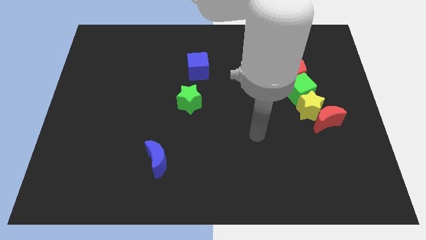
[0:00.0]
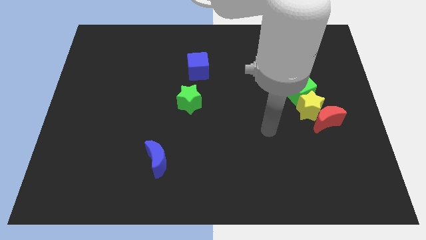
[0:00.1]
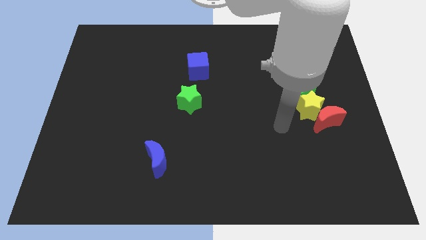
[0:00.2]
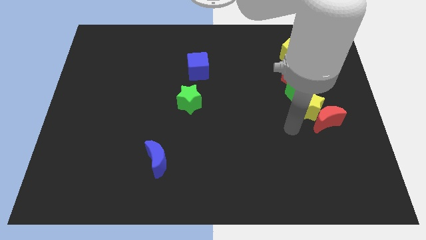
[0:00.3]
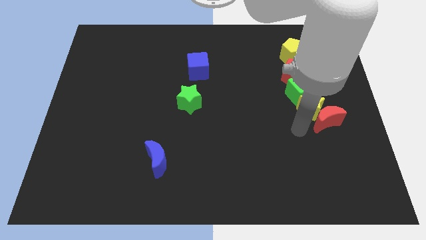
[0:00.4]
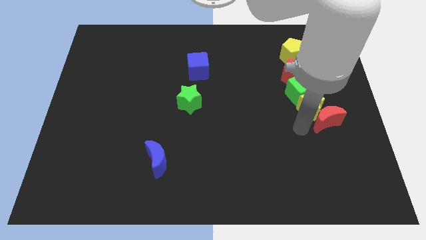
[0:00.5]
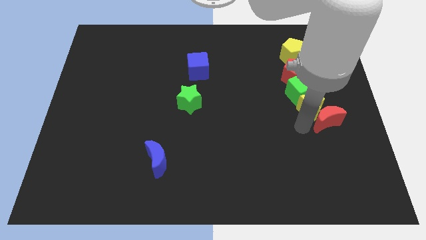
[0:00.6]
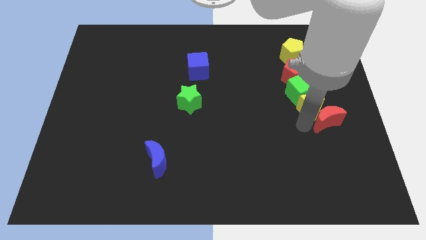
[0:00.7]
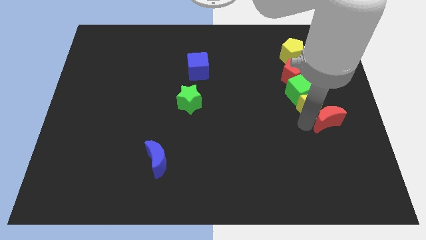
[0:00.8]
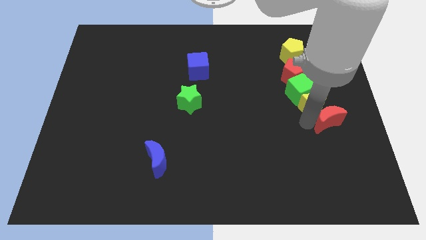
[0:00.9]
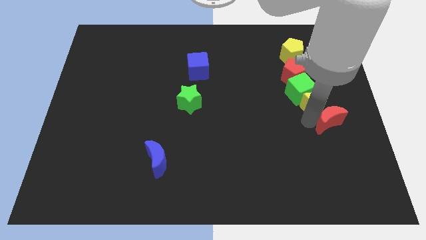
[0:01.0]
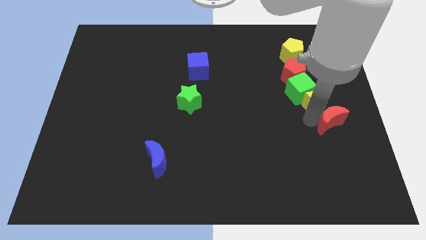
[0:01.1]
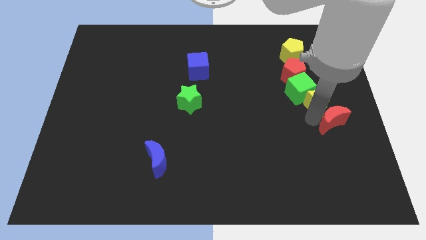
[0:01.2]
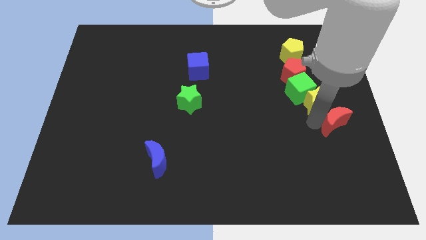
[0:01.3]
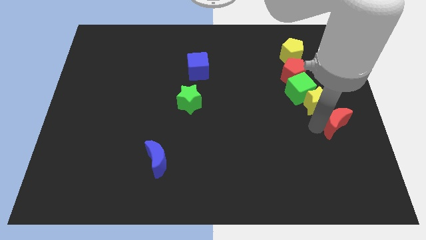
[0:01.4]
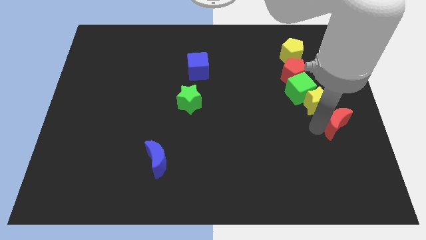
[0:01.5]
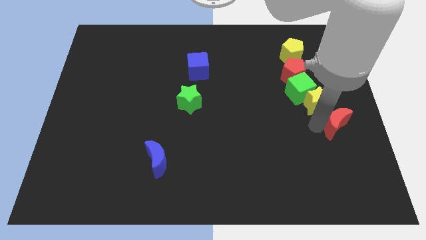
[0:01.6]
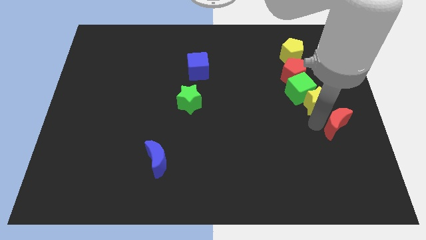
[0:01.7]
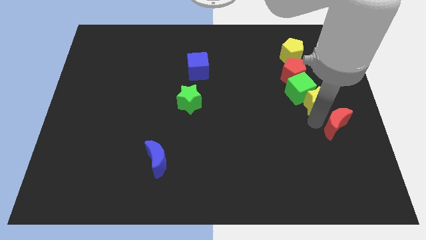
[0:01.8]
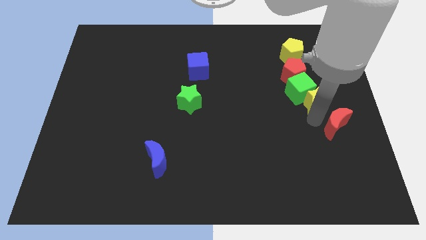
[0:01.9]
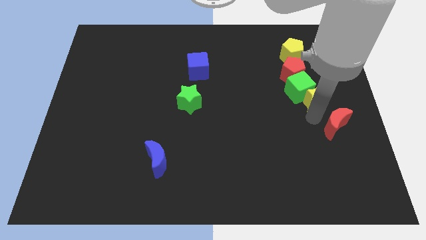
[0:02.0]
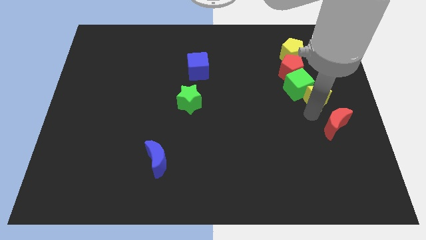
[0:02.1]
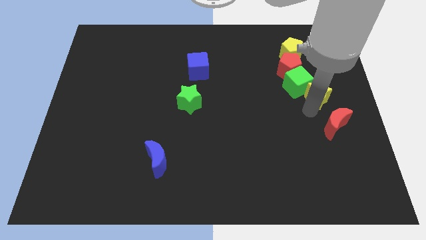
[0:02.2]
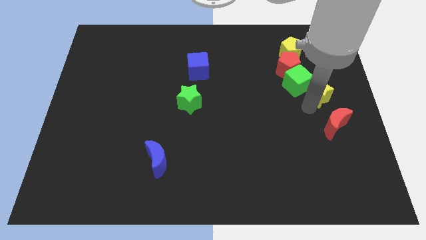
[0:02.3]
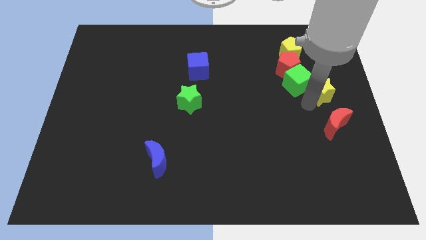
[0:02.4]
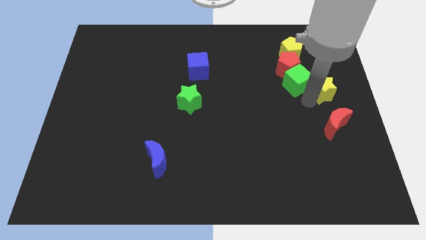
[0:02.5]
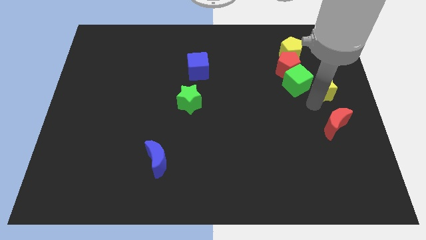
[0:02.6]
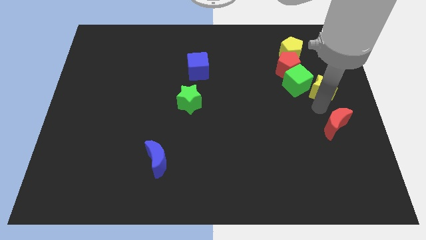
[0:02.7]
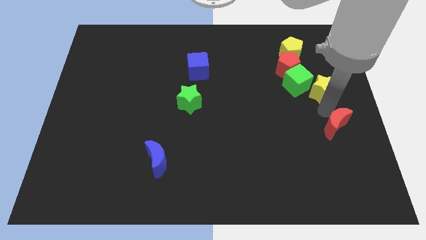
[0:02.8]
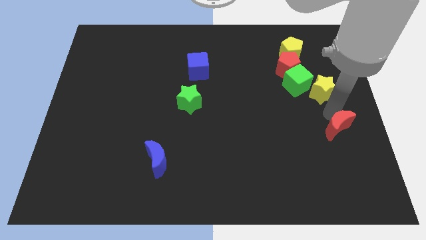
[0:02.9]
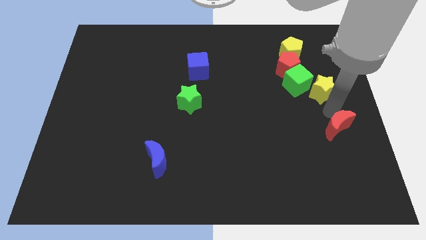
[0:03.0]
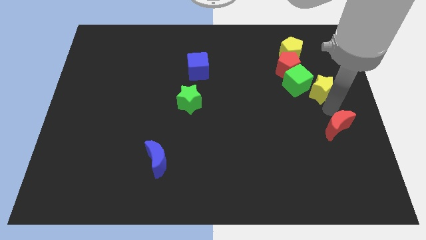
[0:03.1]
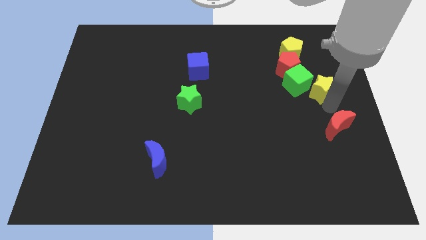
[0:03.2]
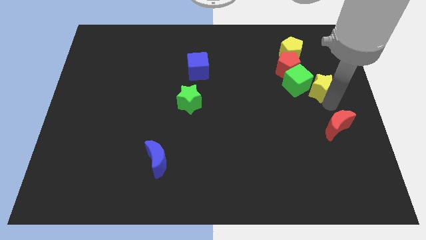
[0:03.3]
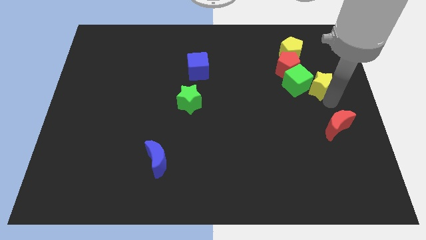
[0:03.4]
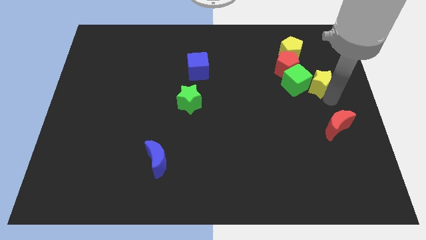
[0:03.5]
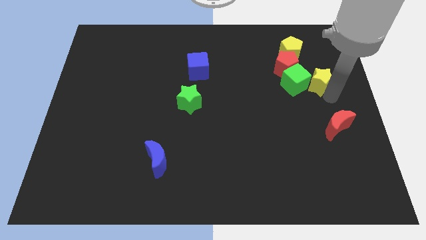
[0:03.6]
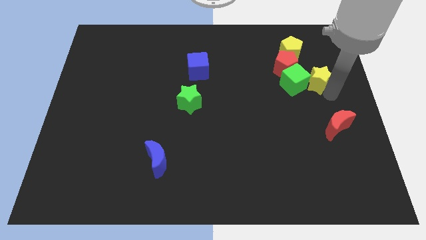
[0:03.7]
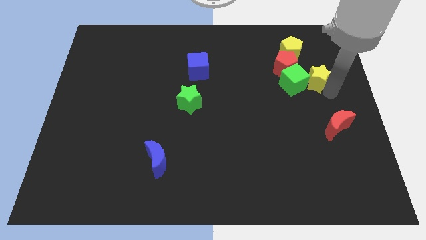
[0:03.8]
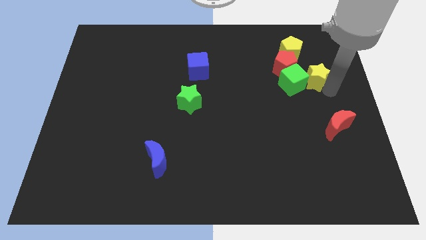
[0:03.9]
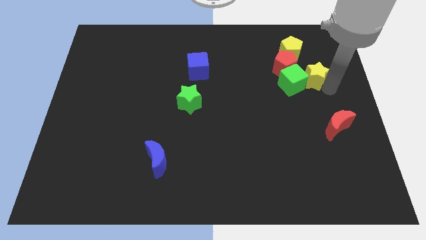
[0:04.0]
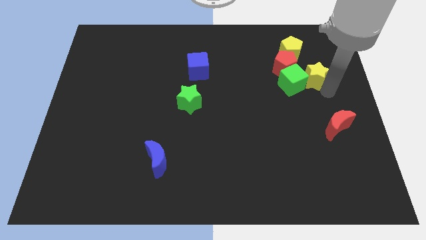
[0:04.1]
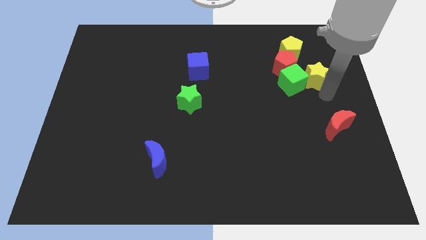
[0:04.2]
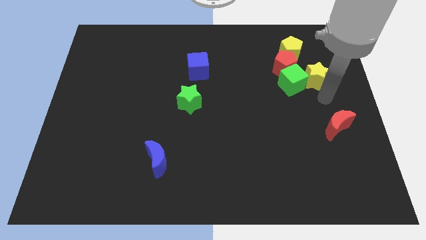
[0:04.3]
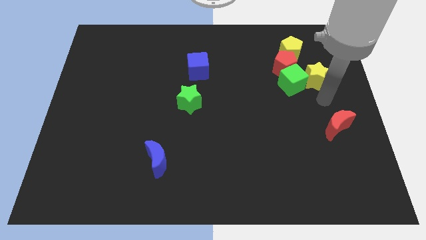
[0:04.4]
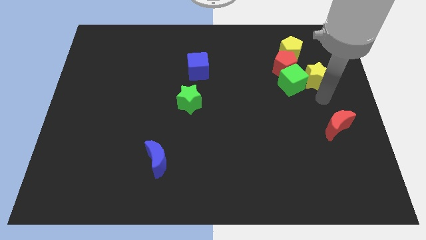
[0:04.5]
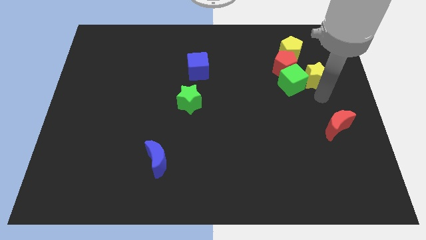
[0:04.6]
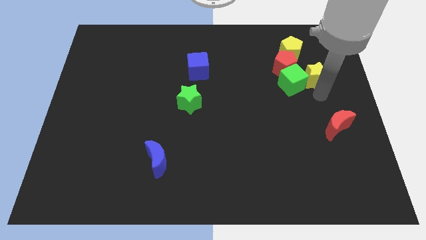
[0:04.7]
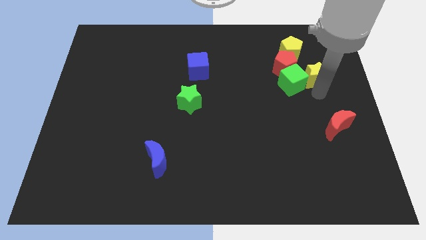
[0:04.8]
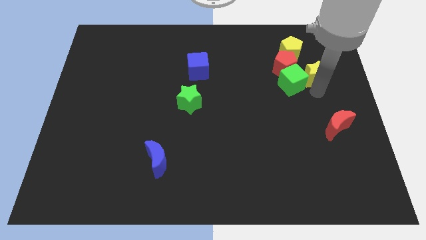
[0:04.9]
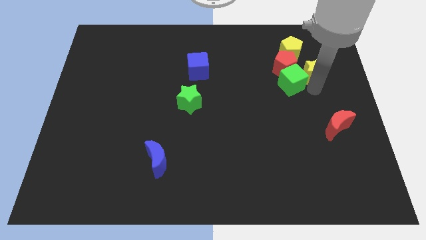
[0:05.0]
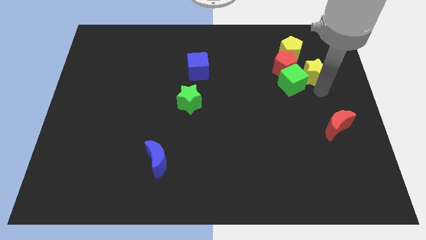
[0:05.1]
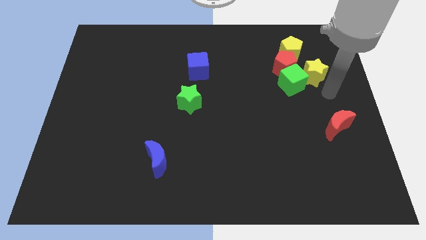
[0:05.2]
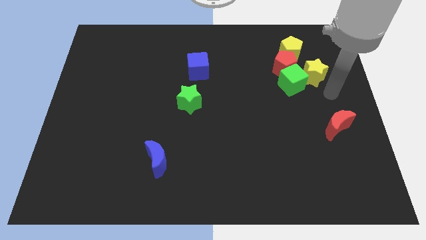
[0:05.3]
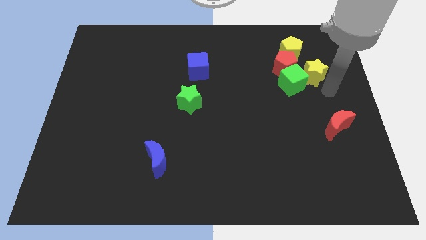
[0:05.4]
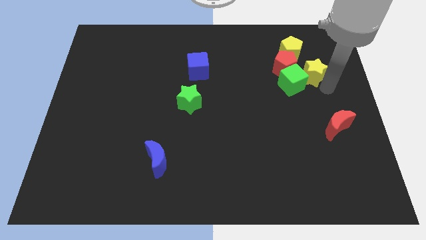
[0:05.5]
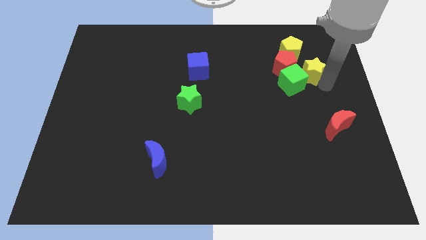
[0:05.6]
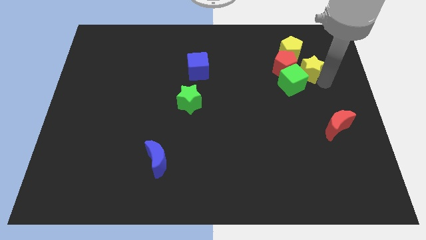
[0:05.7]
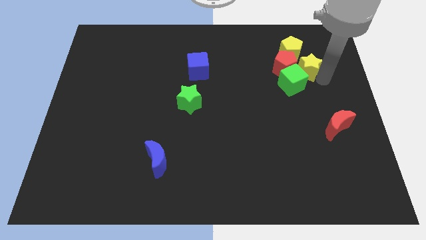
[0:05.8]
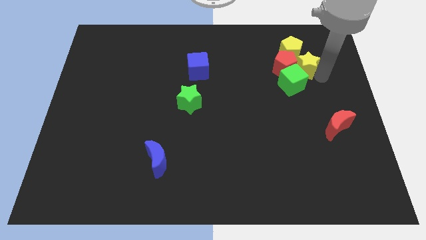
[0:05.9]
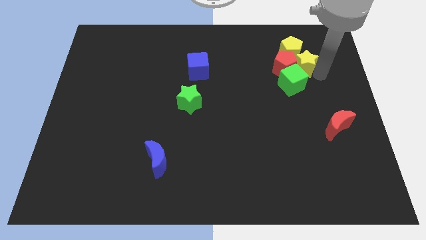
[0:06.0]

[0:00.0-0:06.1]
slide the yellow star to the yellow pentagon
